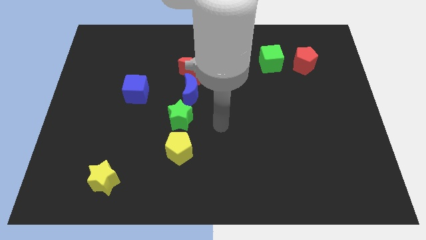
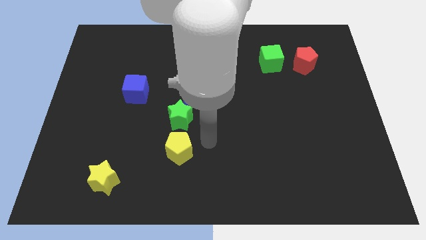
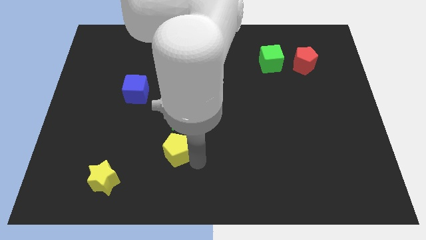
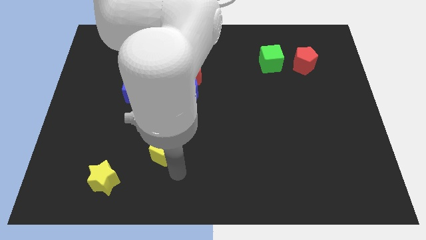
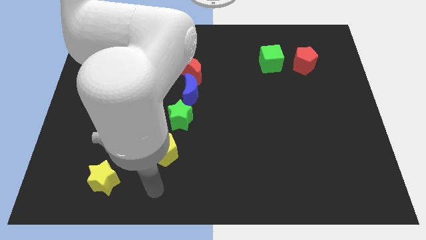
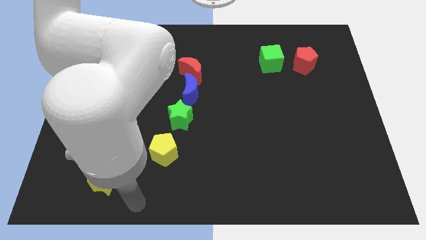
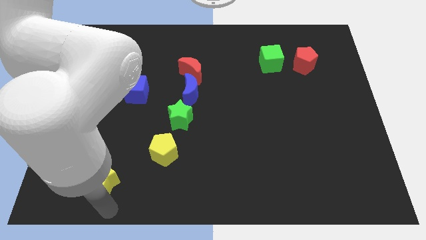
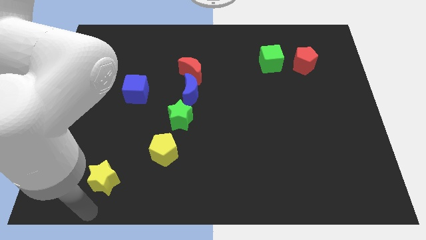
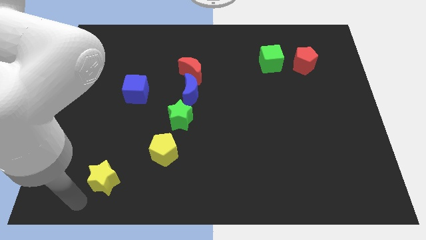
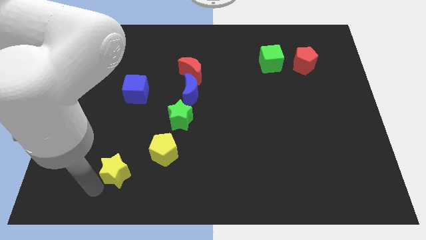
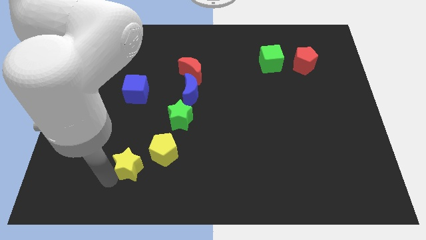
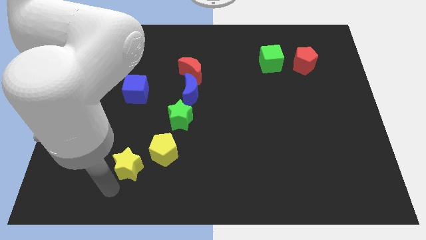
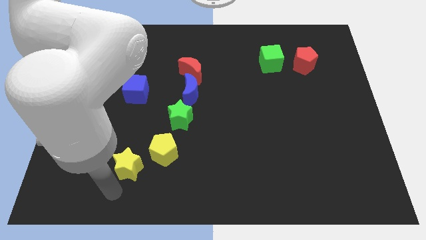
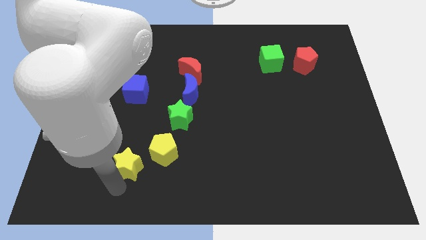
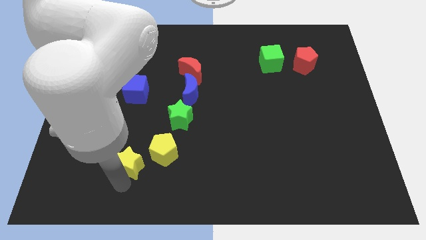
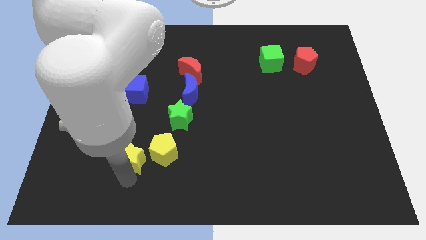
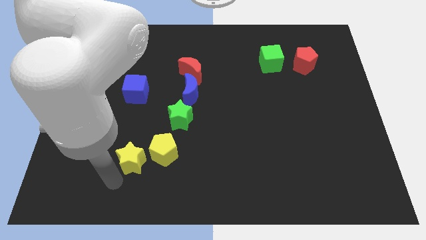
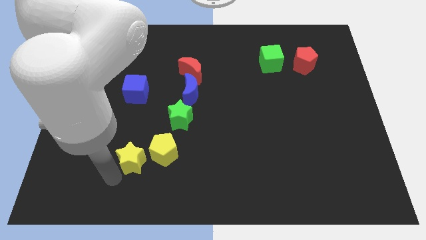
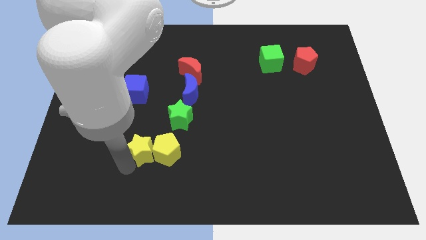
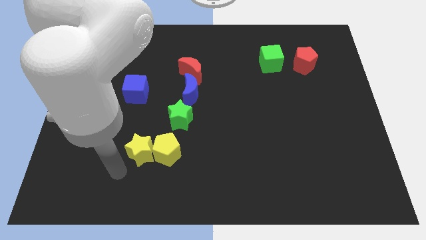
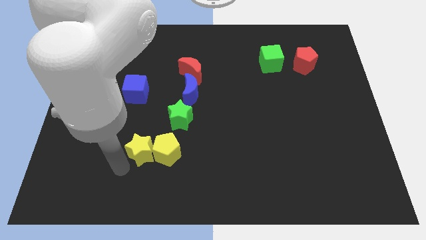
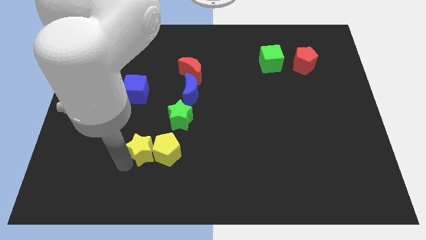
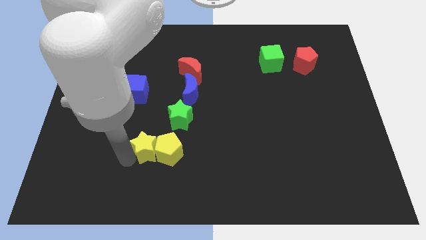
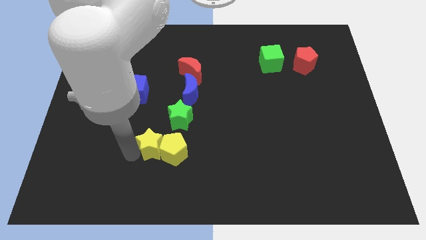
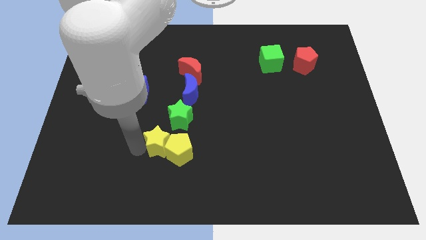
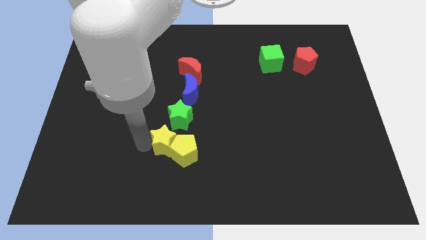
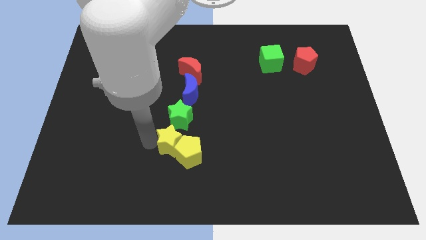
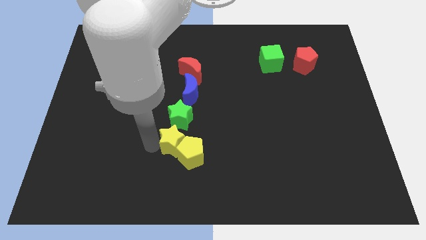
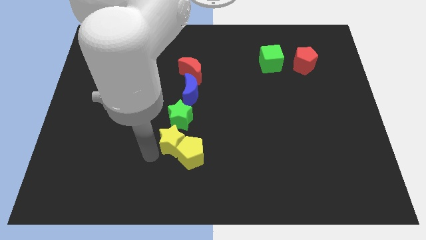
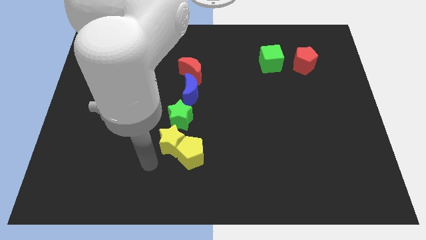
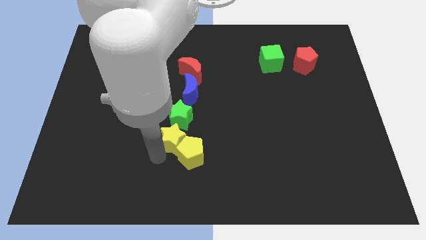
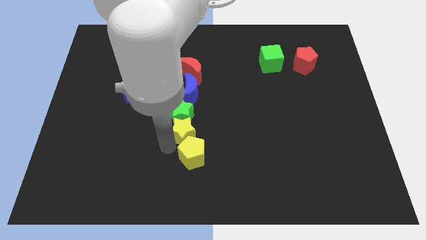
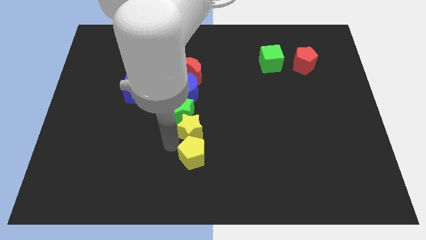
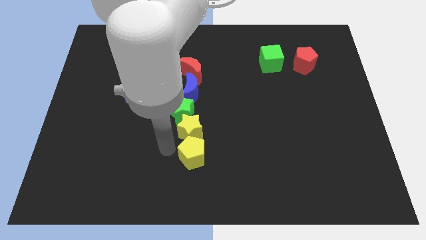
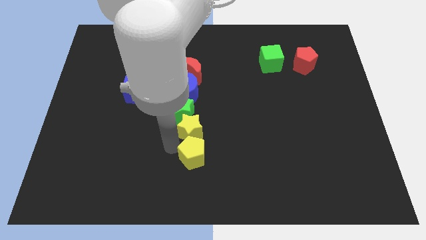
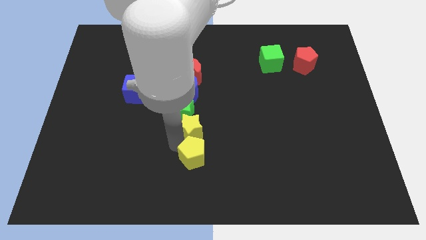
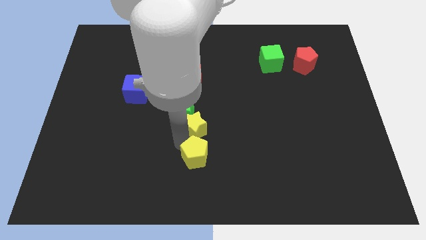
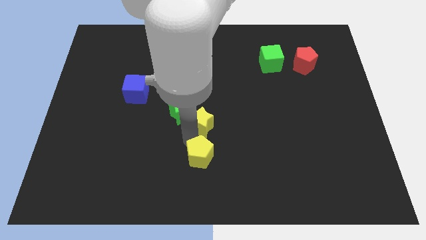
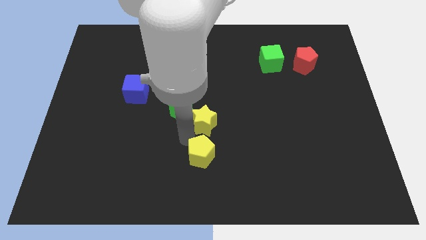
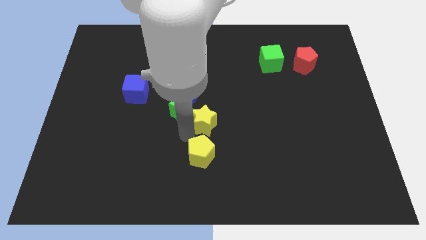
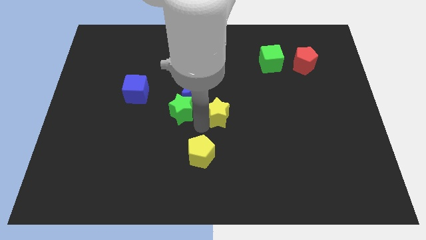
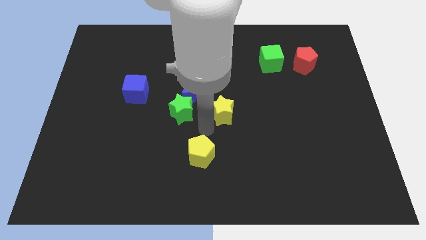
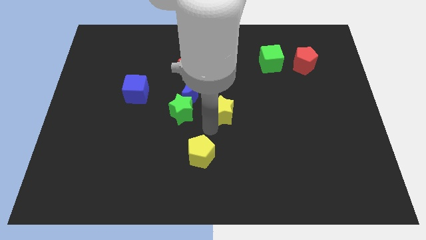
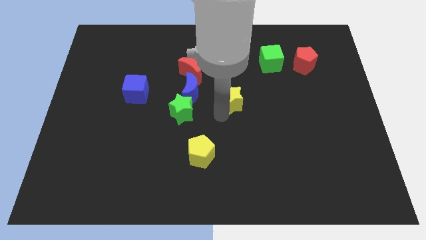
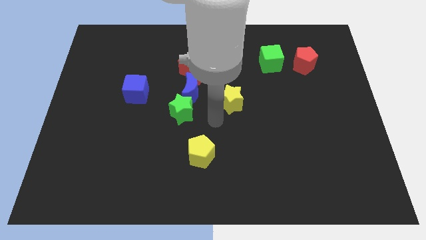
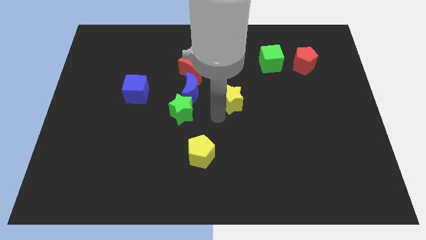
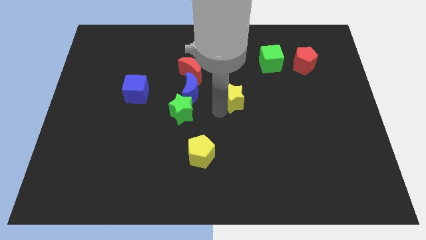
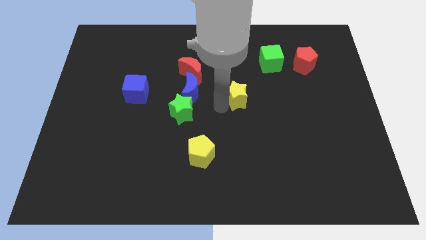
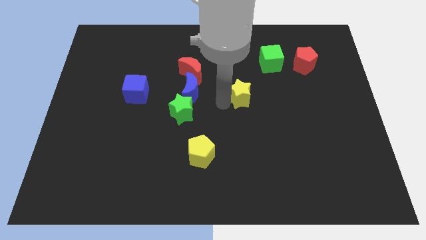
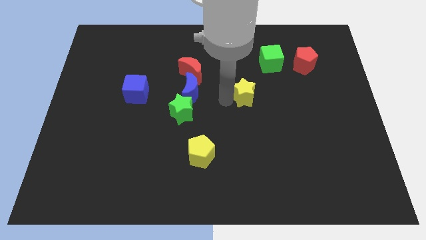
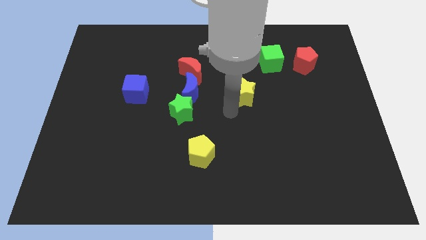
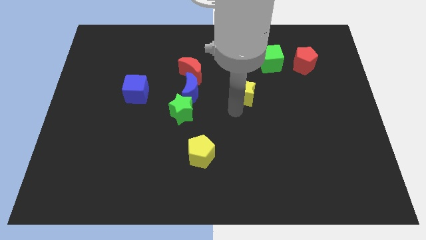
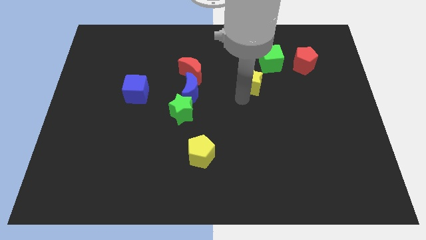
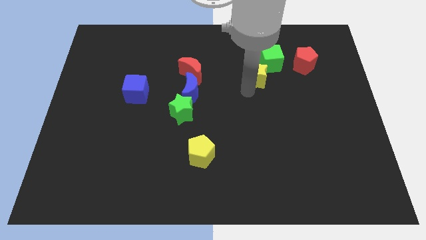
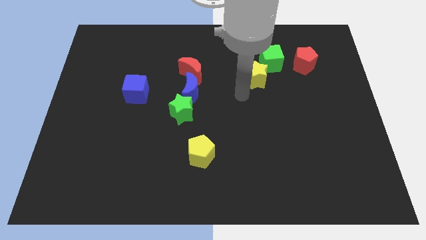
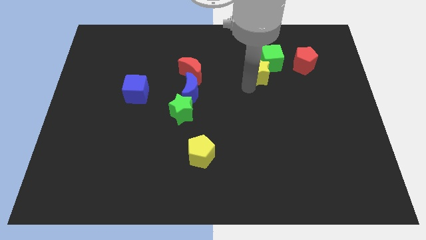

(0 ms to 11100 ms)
push the yellow star close to the green cube
